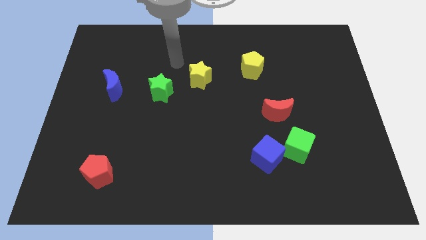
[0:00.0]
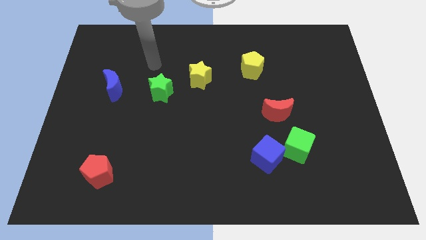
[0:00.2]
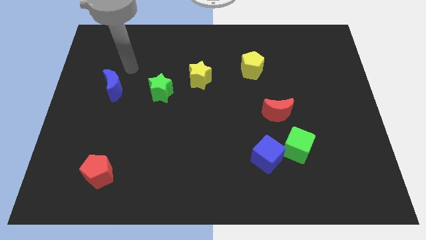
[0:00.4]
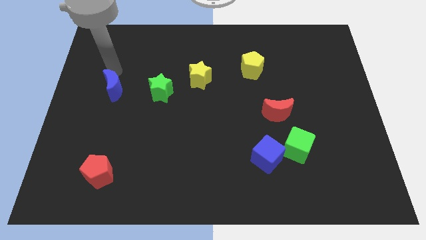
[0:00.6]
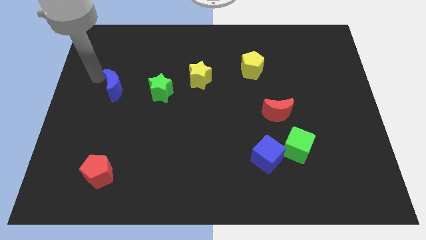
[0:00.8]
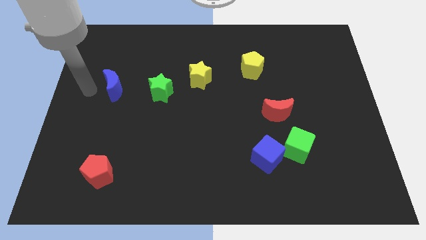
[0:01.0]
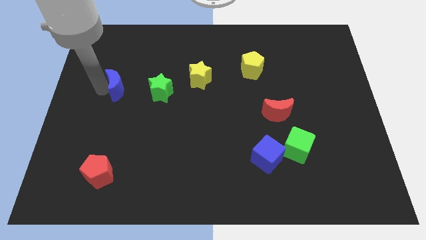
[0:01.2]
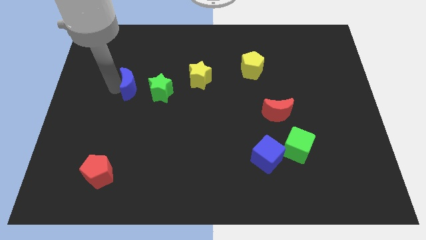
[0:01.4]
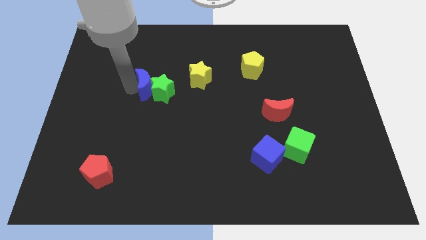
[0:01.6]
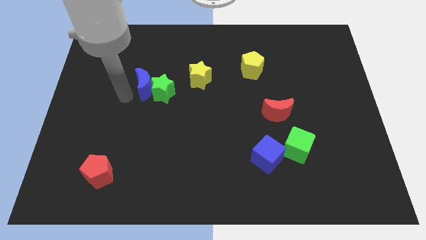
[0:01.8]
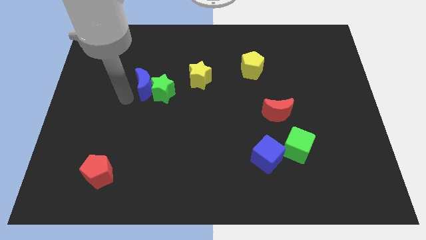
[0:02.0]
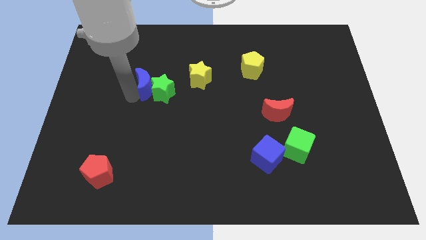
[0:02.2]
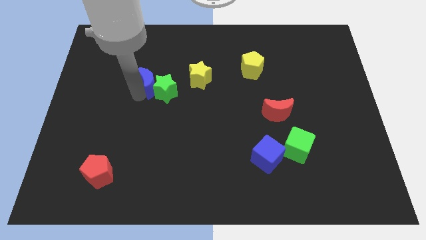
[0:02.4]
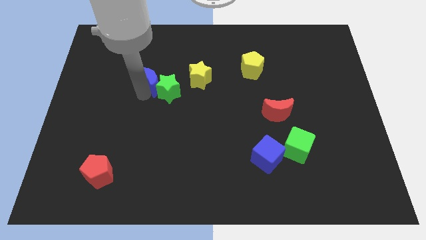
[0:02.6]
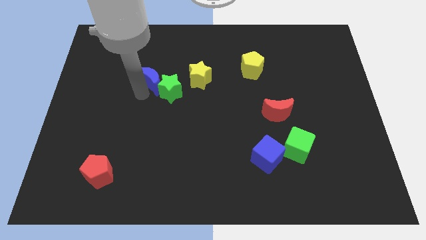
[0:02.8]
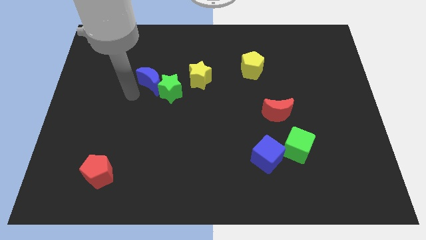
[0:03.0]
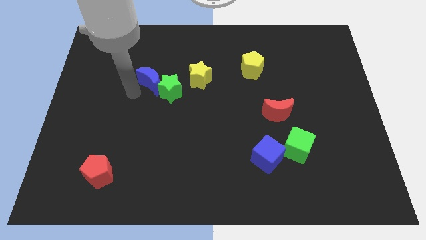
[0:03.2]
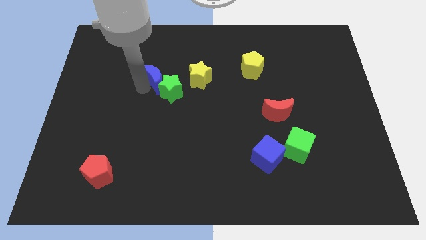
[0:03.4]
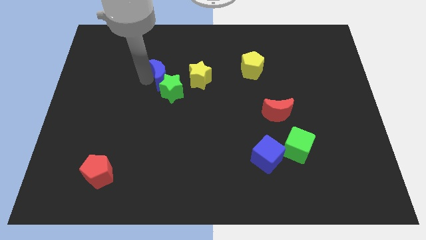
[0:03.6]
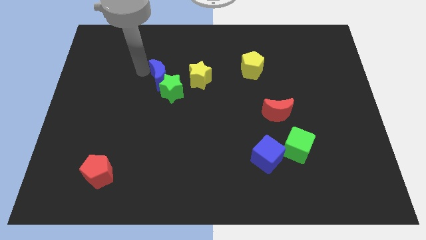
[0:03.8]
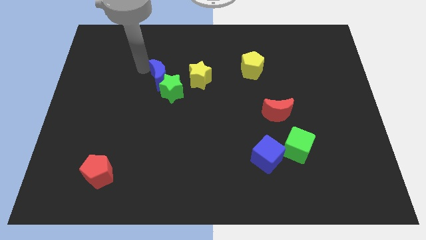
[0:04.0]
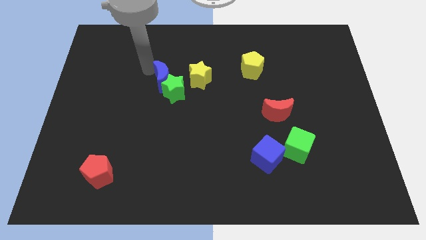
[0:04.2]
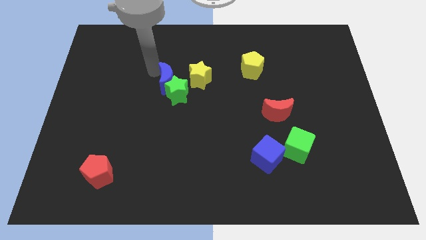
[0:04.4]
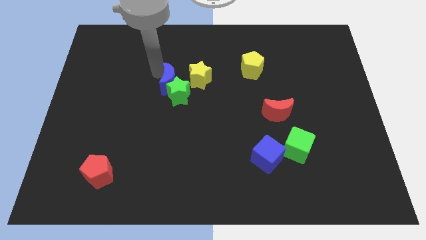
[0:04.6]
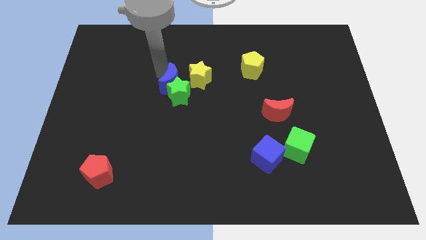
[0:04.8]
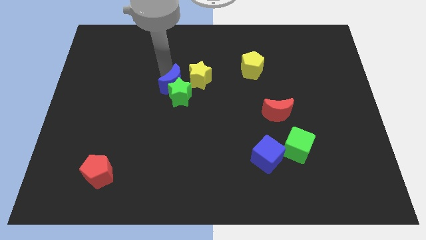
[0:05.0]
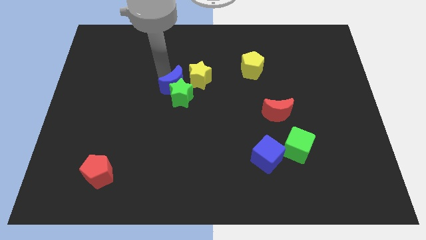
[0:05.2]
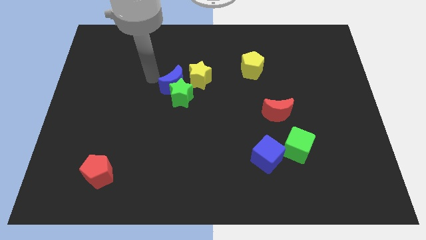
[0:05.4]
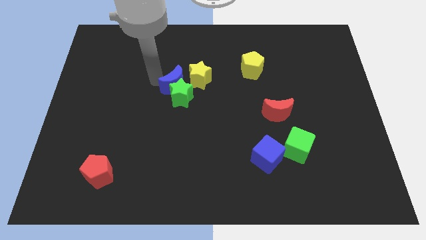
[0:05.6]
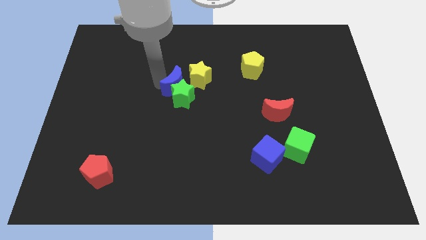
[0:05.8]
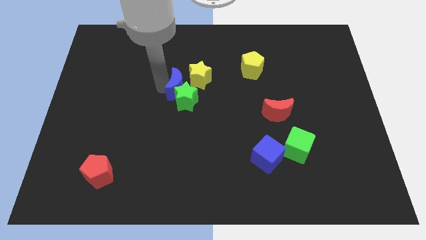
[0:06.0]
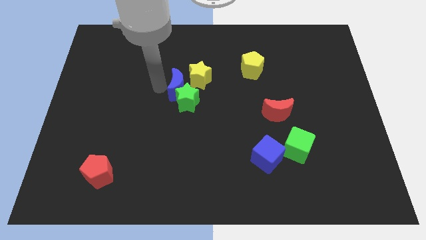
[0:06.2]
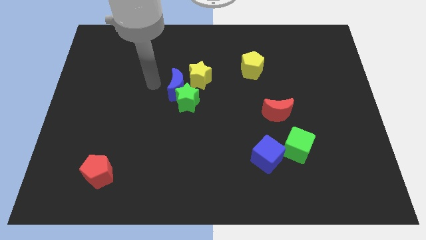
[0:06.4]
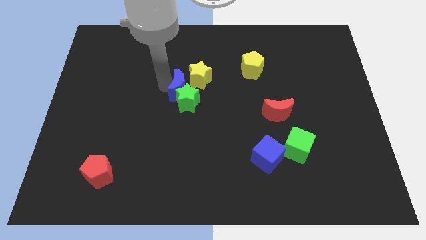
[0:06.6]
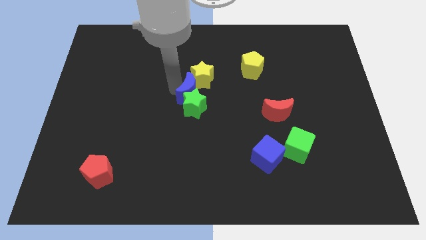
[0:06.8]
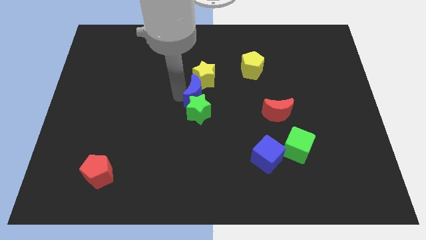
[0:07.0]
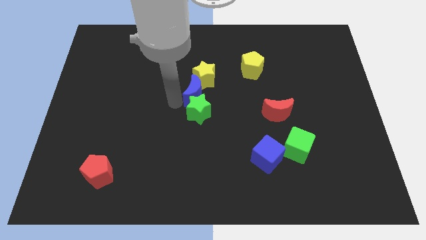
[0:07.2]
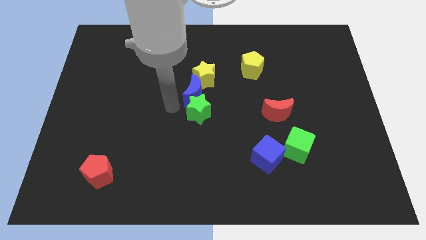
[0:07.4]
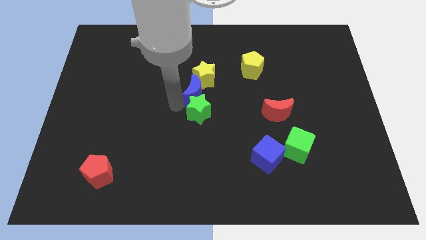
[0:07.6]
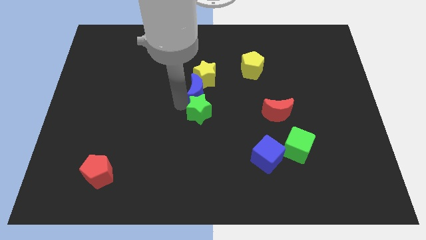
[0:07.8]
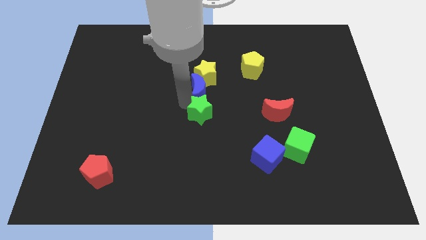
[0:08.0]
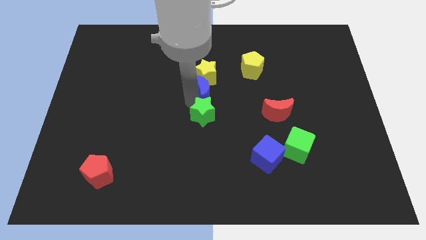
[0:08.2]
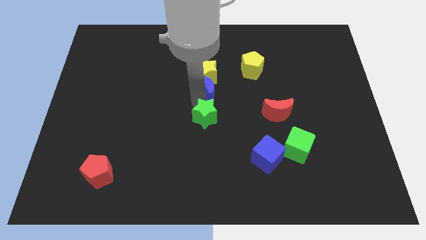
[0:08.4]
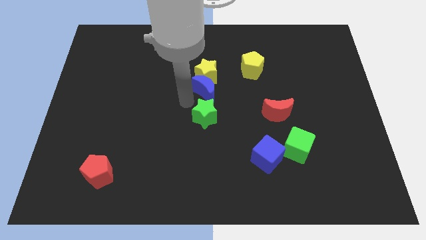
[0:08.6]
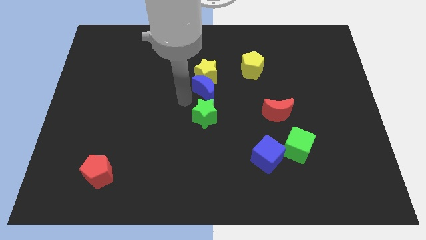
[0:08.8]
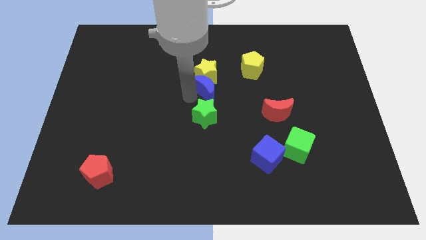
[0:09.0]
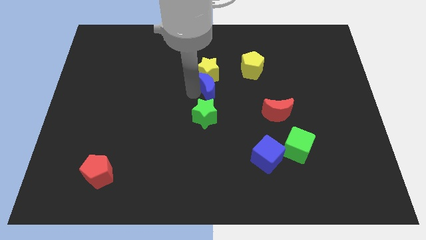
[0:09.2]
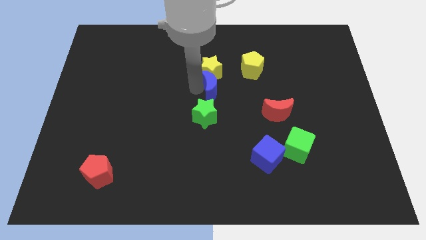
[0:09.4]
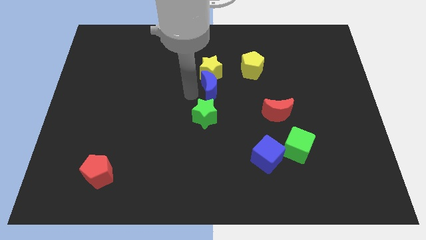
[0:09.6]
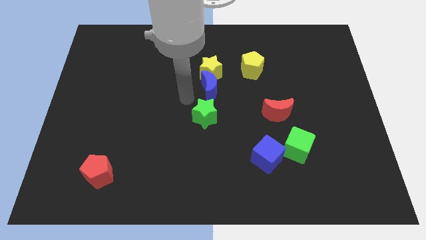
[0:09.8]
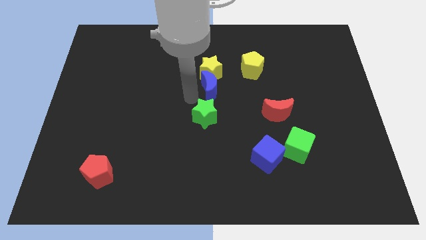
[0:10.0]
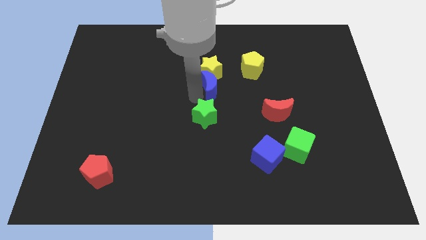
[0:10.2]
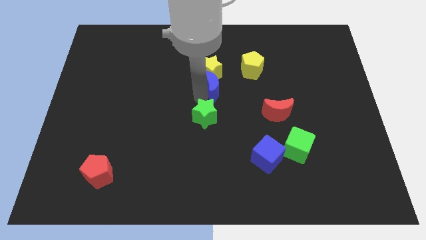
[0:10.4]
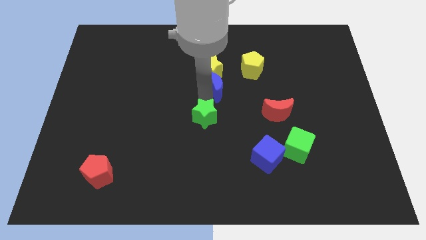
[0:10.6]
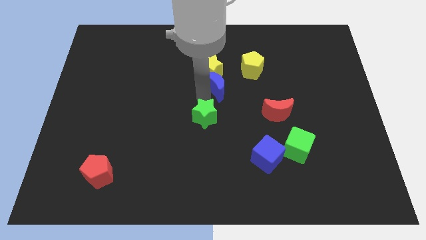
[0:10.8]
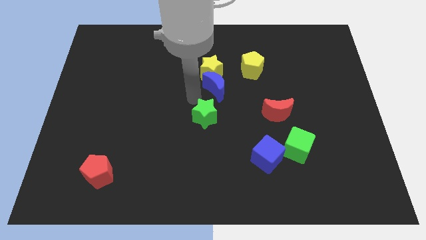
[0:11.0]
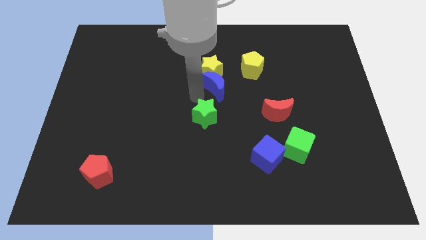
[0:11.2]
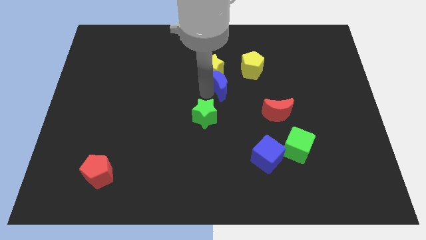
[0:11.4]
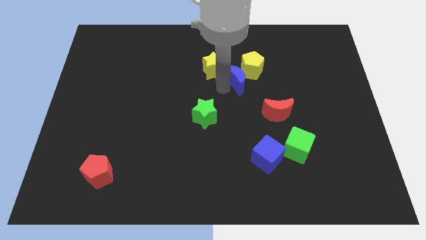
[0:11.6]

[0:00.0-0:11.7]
put the blue moon to the yellow pentagon
